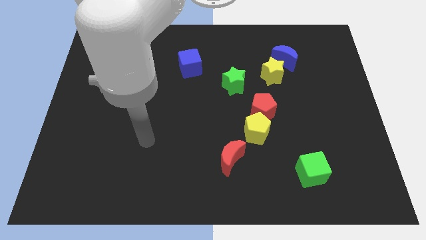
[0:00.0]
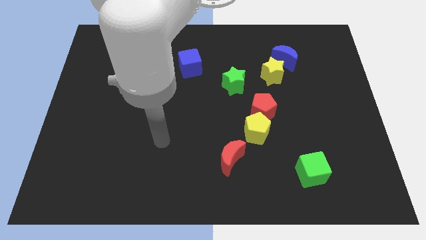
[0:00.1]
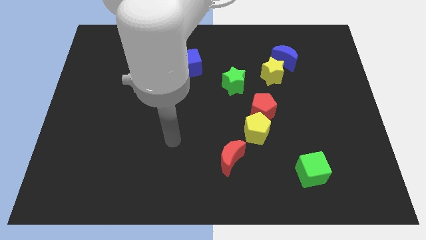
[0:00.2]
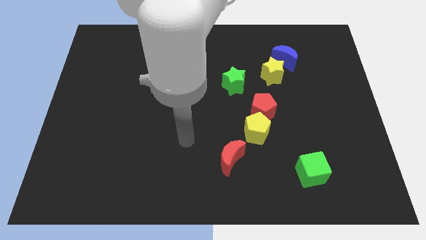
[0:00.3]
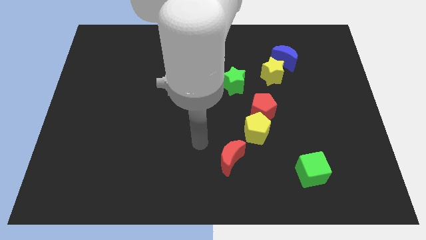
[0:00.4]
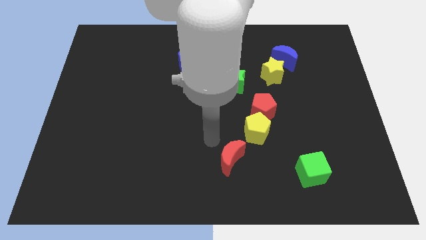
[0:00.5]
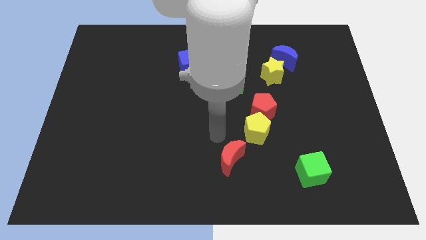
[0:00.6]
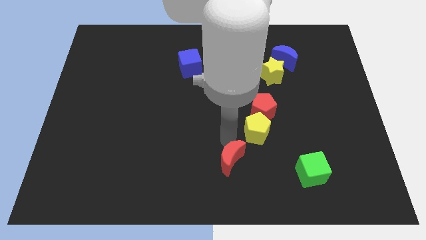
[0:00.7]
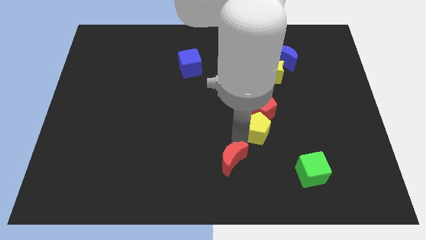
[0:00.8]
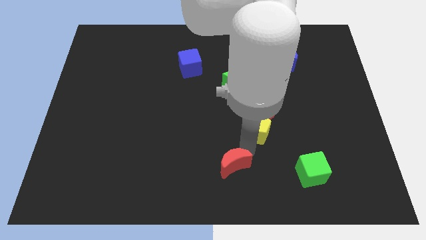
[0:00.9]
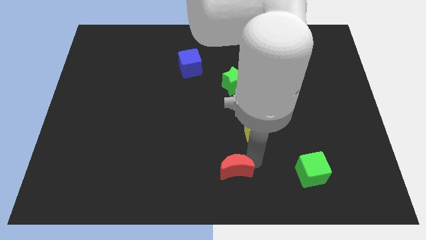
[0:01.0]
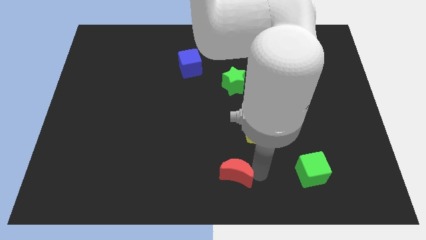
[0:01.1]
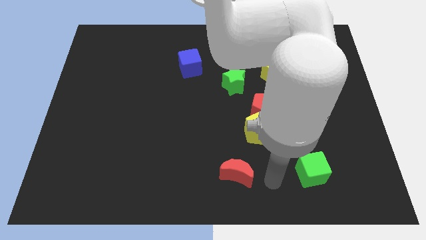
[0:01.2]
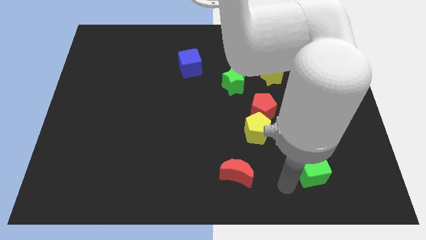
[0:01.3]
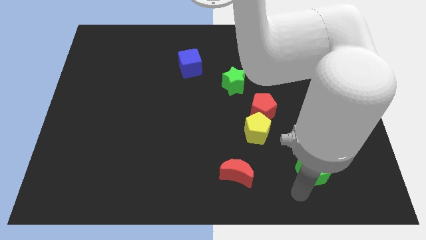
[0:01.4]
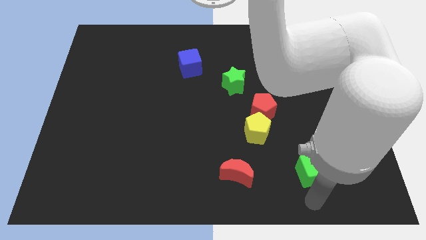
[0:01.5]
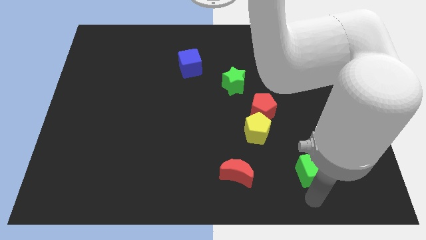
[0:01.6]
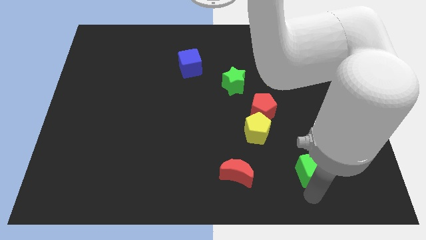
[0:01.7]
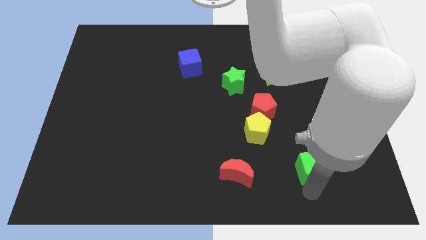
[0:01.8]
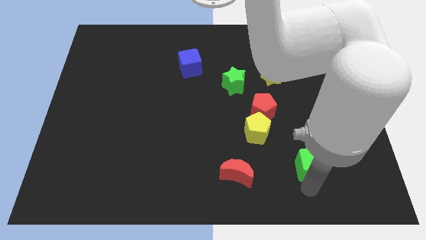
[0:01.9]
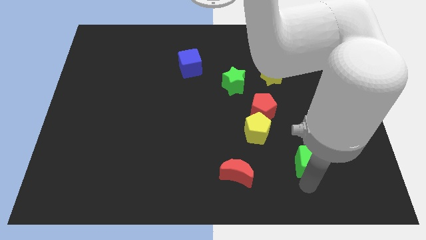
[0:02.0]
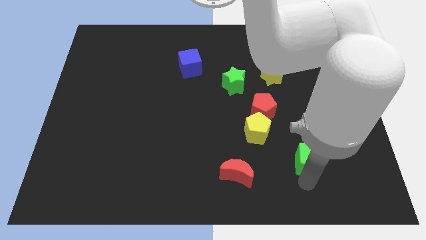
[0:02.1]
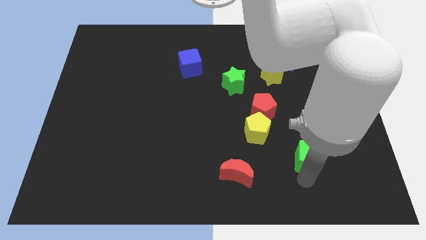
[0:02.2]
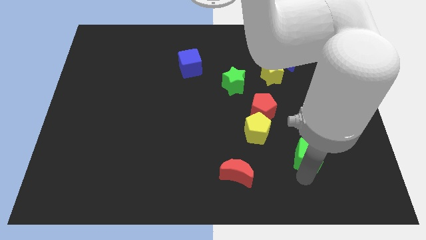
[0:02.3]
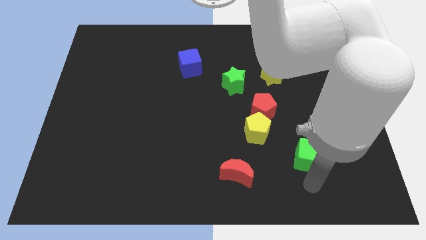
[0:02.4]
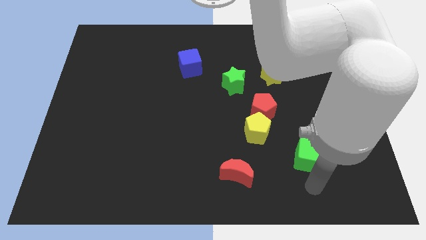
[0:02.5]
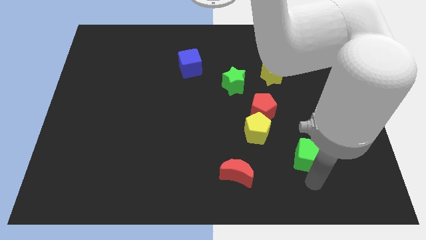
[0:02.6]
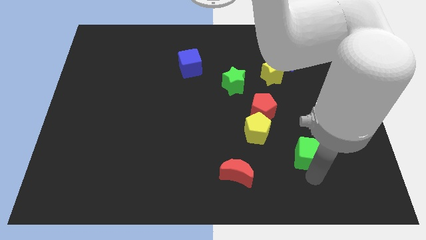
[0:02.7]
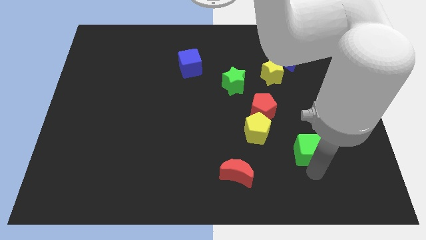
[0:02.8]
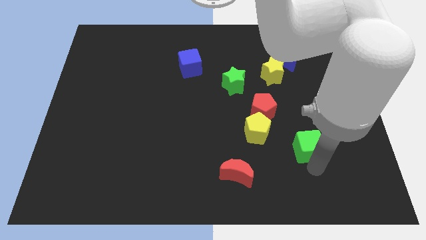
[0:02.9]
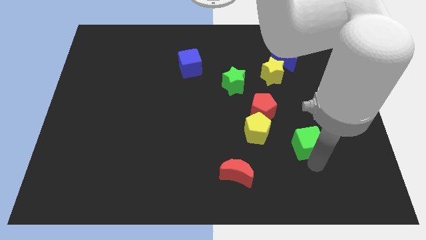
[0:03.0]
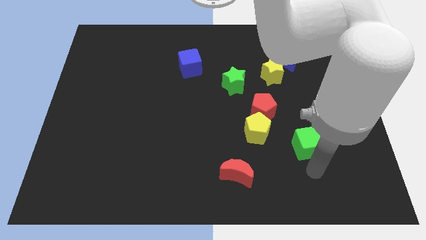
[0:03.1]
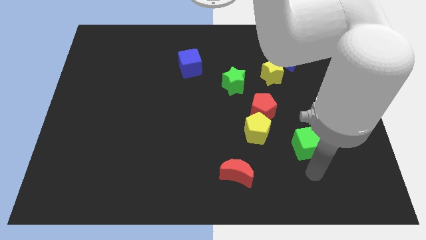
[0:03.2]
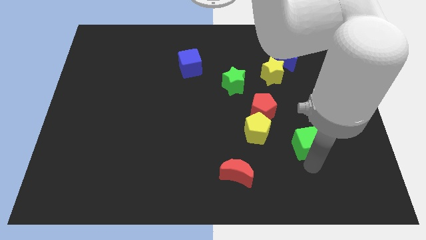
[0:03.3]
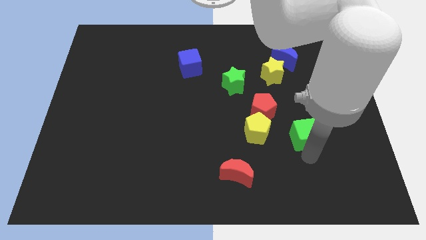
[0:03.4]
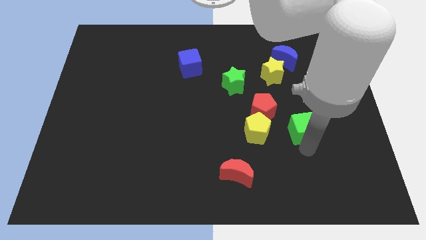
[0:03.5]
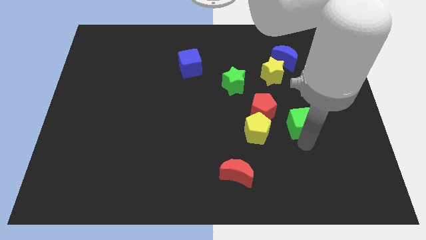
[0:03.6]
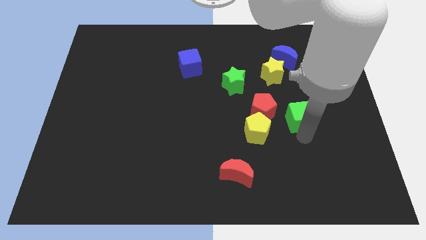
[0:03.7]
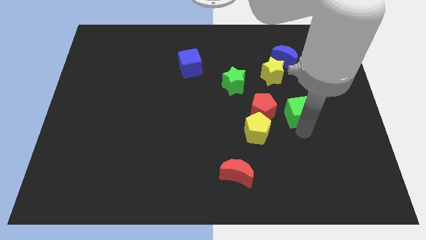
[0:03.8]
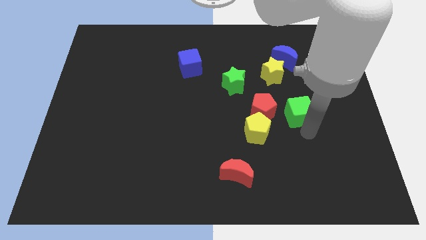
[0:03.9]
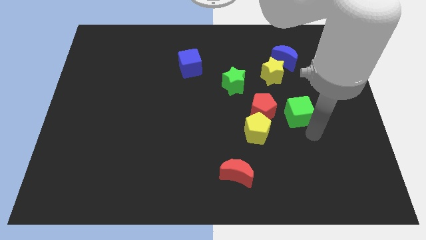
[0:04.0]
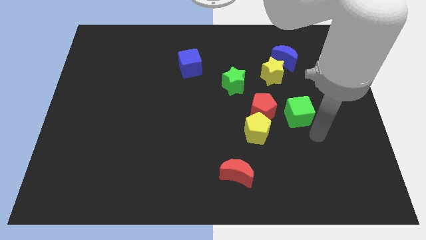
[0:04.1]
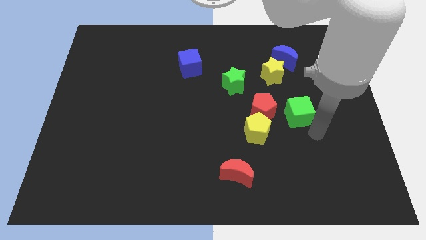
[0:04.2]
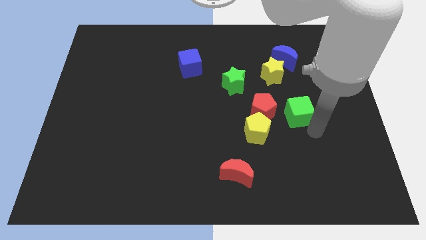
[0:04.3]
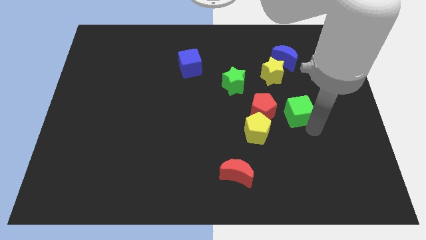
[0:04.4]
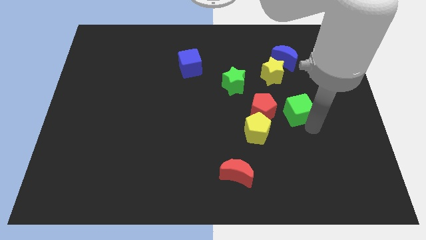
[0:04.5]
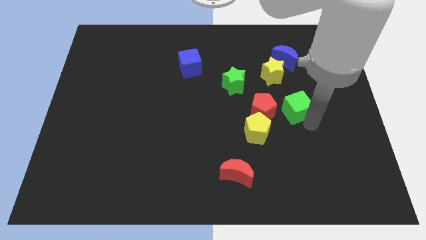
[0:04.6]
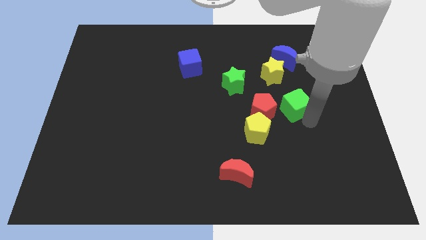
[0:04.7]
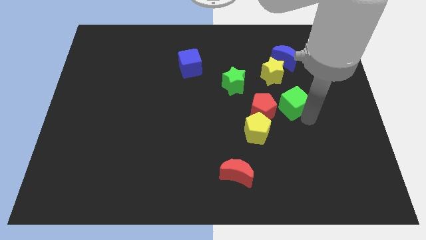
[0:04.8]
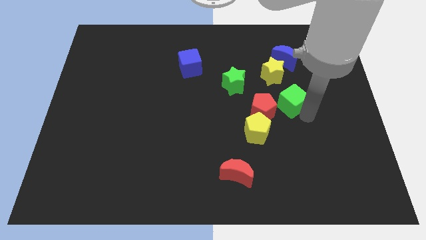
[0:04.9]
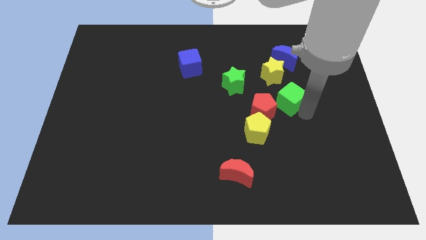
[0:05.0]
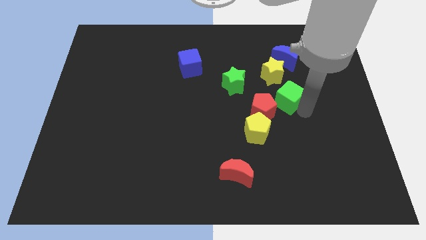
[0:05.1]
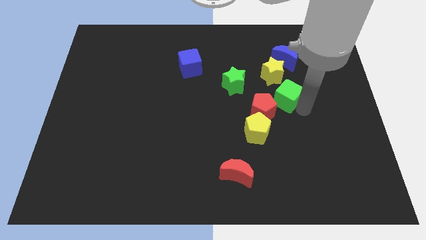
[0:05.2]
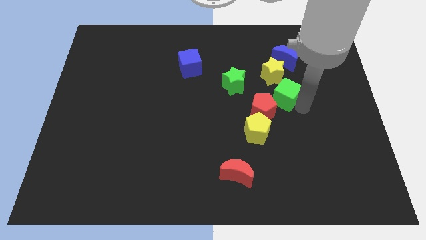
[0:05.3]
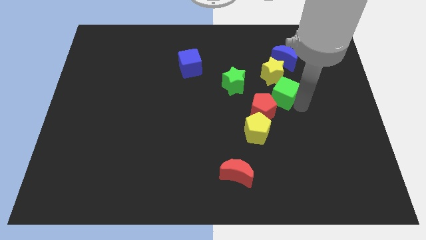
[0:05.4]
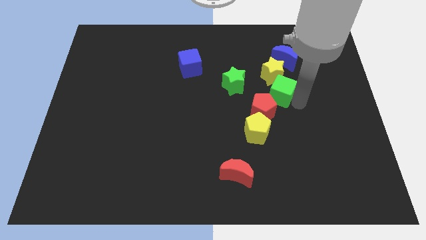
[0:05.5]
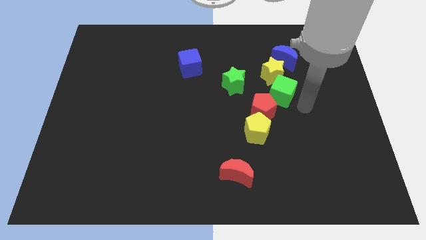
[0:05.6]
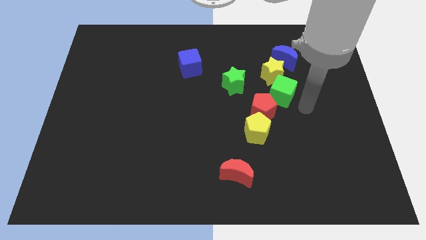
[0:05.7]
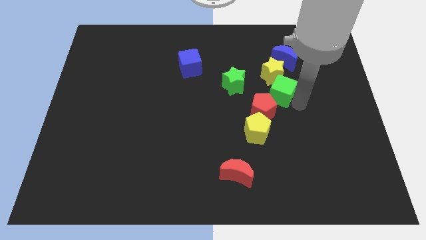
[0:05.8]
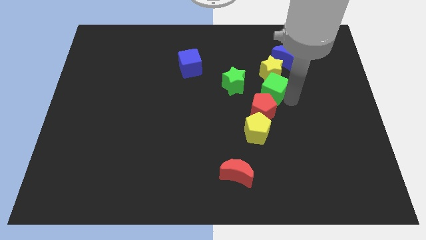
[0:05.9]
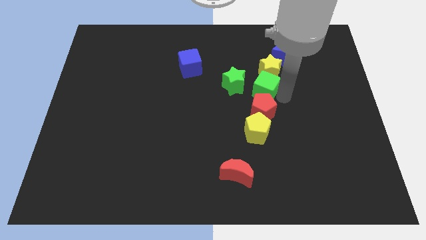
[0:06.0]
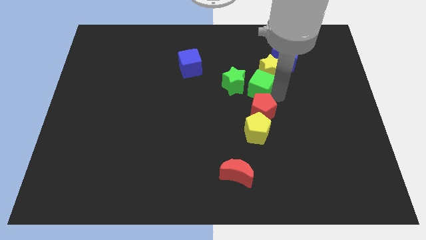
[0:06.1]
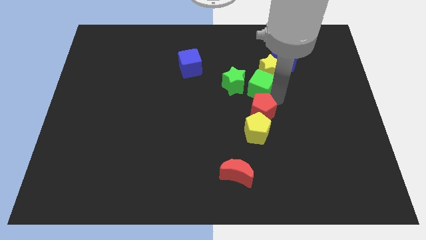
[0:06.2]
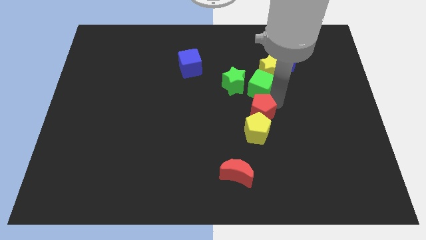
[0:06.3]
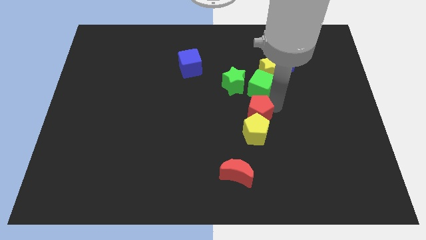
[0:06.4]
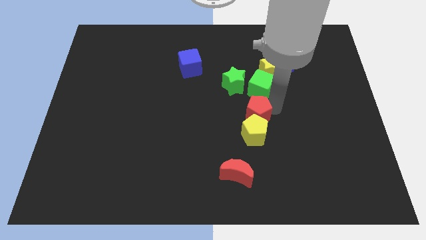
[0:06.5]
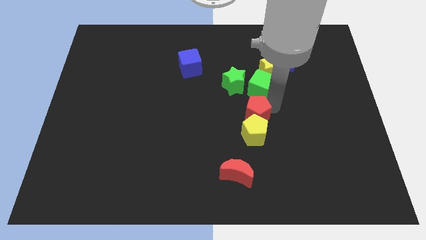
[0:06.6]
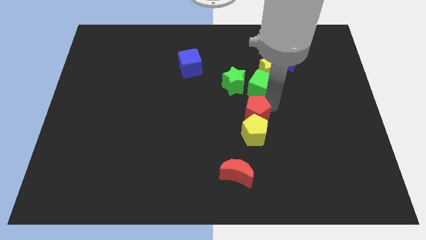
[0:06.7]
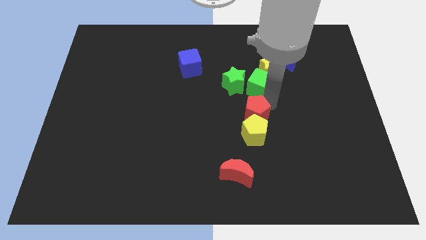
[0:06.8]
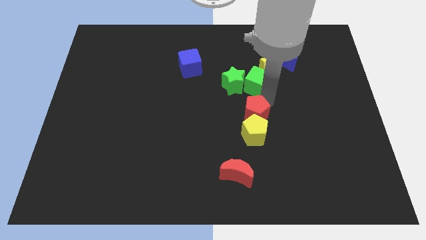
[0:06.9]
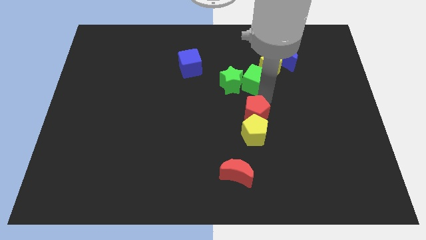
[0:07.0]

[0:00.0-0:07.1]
slide the green cube to the left side of the yellow star

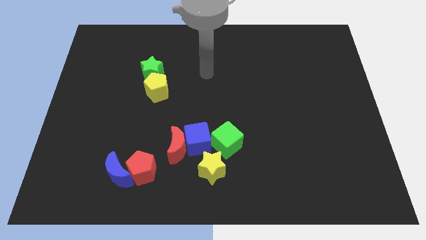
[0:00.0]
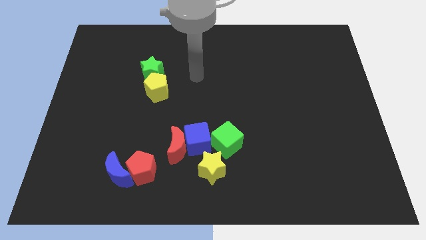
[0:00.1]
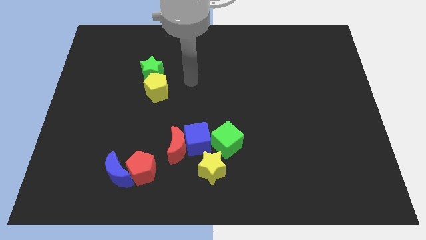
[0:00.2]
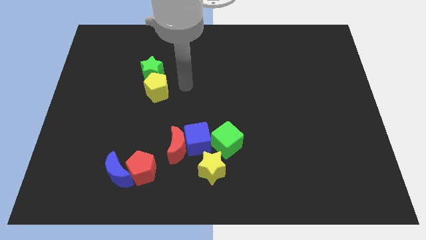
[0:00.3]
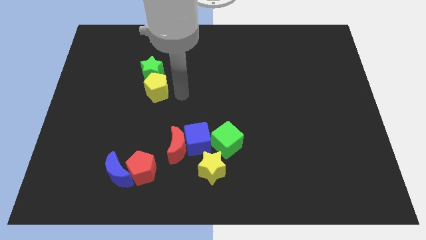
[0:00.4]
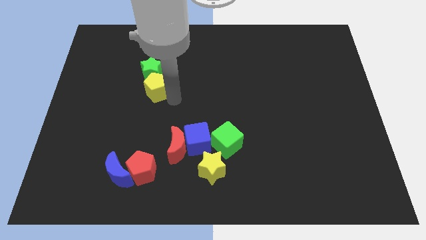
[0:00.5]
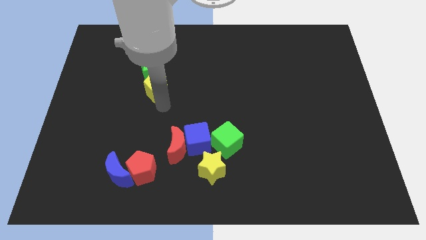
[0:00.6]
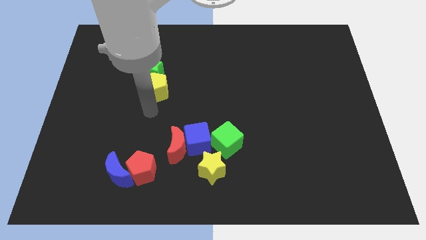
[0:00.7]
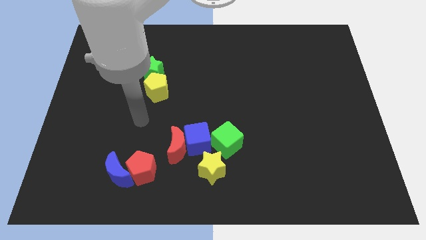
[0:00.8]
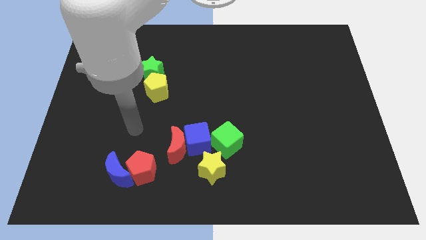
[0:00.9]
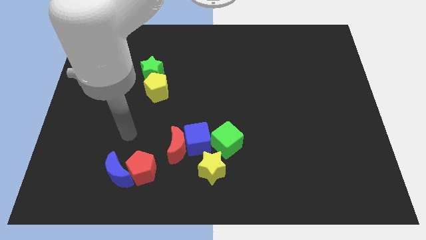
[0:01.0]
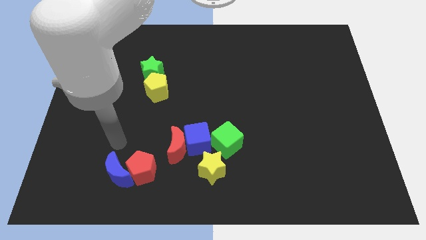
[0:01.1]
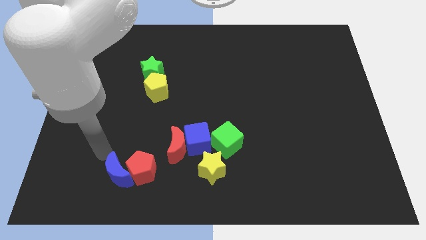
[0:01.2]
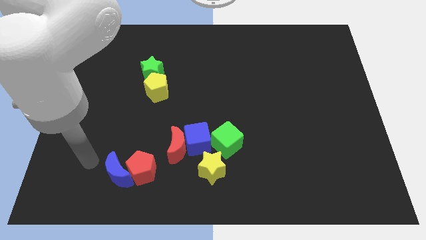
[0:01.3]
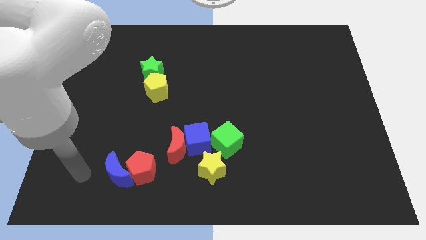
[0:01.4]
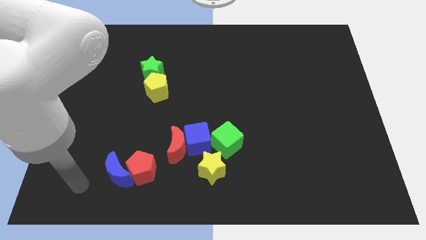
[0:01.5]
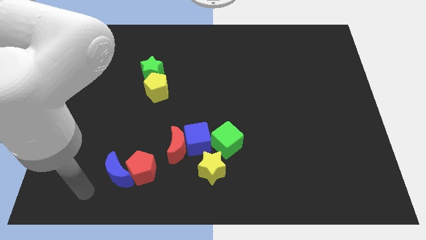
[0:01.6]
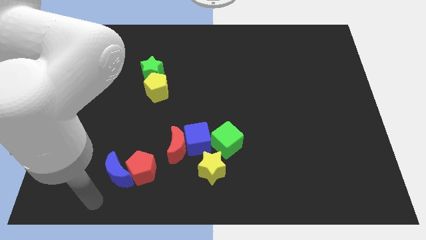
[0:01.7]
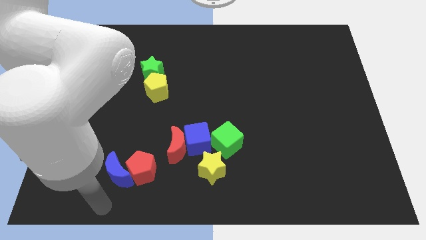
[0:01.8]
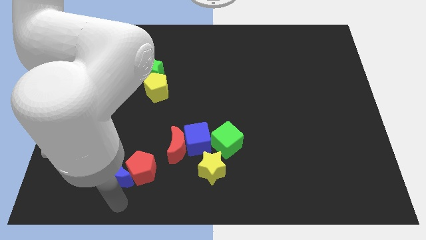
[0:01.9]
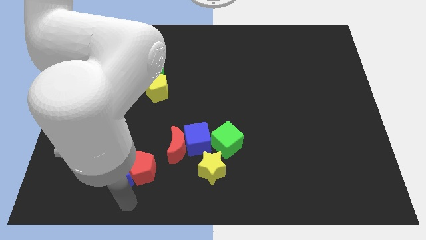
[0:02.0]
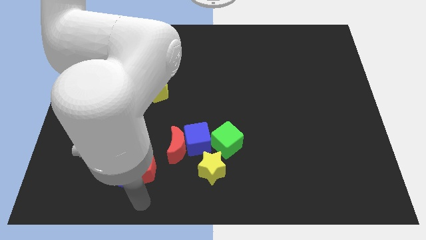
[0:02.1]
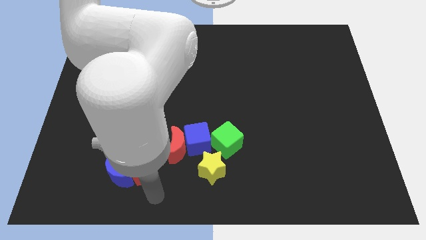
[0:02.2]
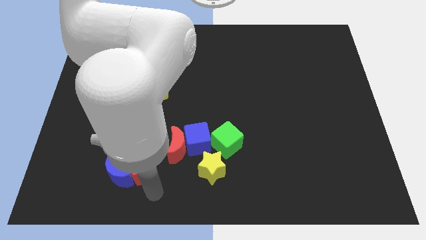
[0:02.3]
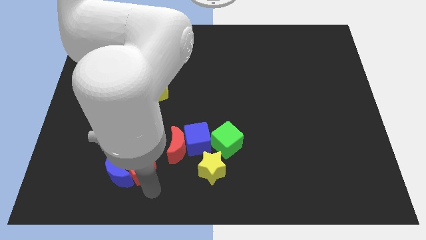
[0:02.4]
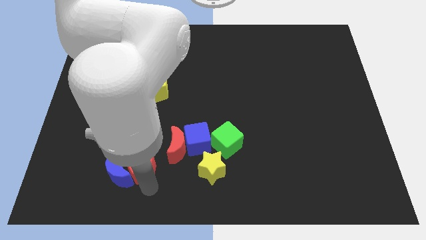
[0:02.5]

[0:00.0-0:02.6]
move the red pentagon to the left of the red moon
